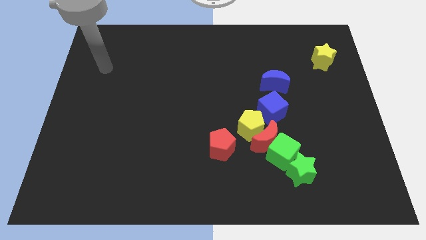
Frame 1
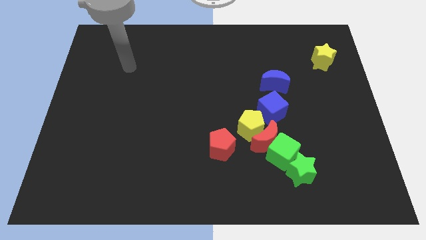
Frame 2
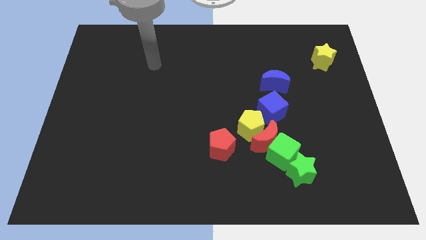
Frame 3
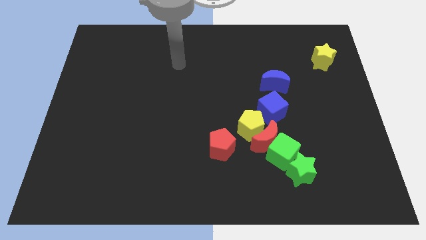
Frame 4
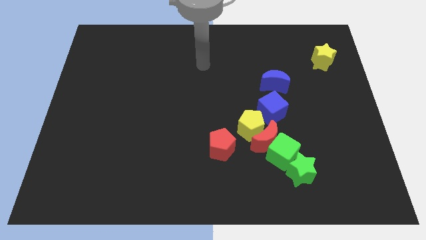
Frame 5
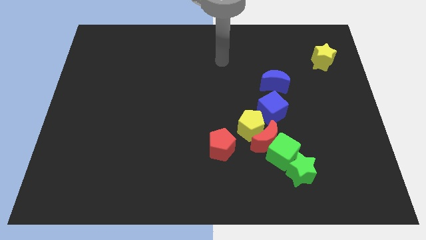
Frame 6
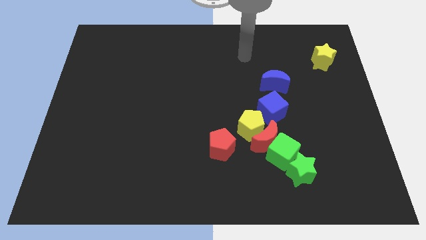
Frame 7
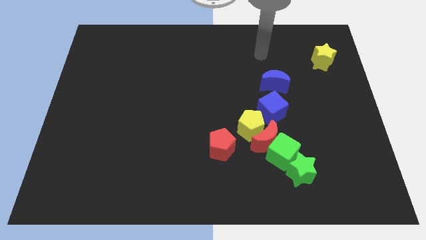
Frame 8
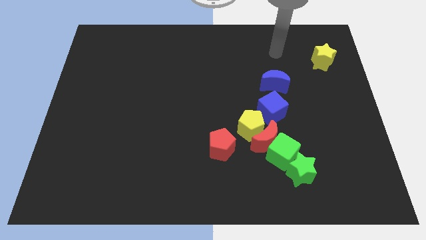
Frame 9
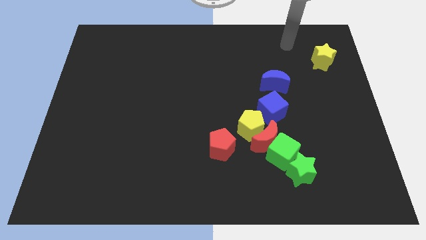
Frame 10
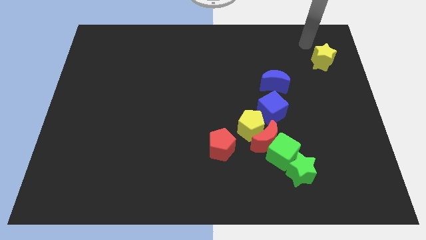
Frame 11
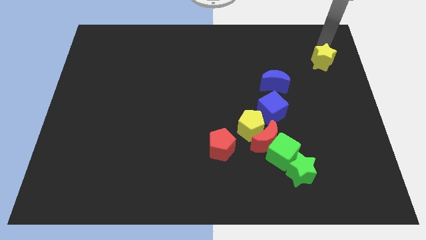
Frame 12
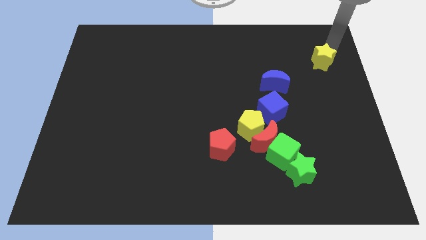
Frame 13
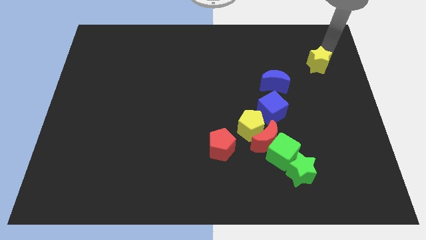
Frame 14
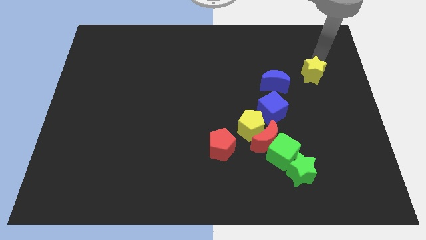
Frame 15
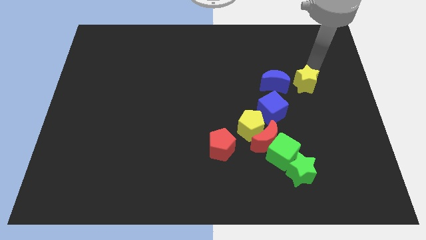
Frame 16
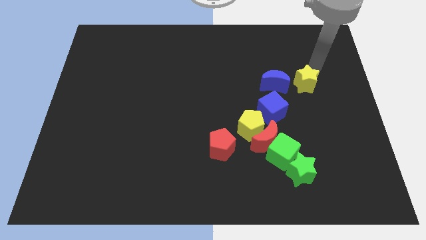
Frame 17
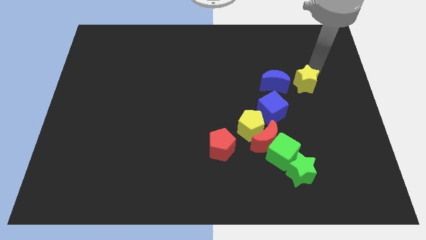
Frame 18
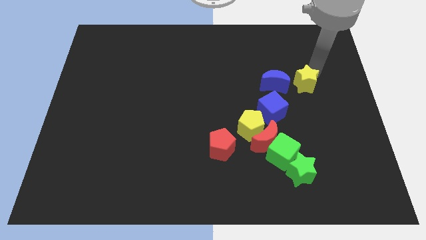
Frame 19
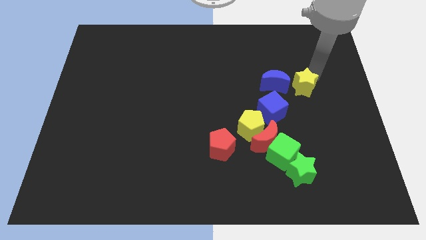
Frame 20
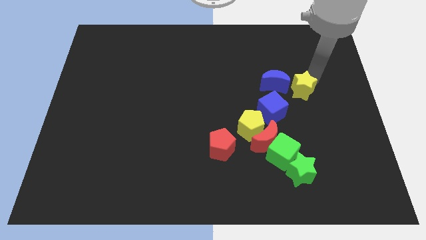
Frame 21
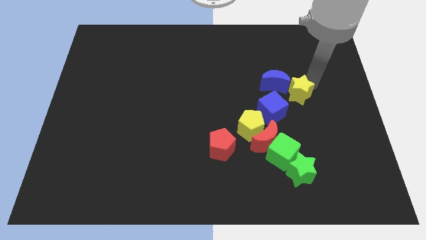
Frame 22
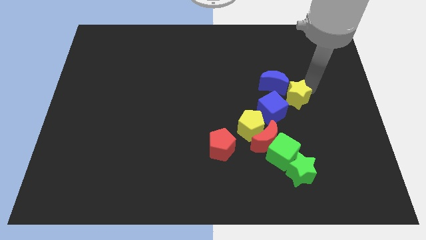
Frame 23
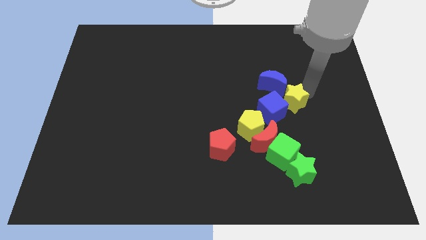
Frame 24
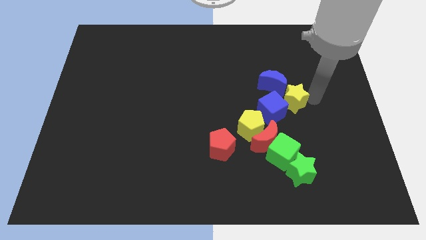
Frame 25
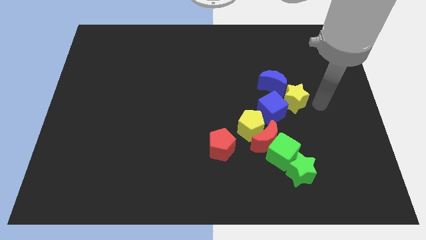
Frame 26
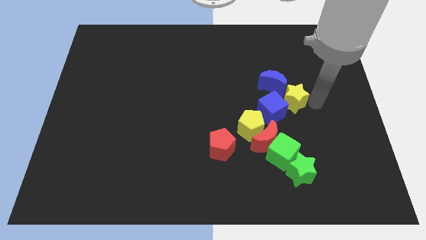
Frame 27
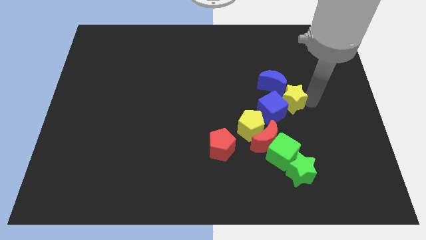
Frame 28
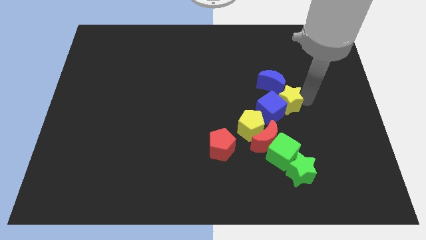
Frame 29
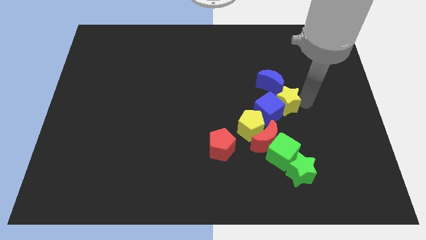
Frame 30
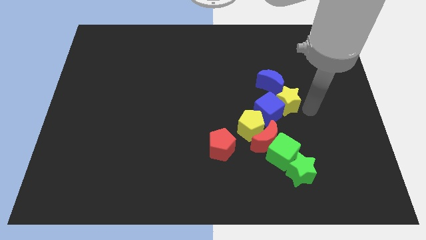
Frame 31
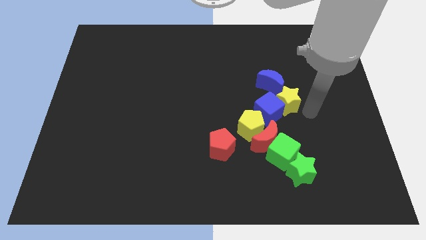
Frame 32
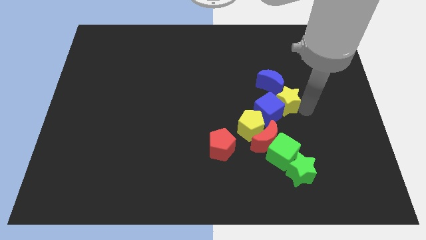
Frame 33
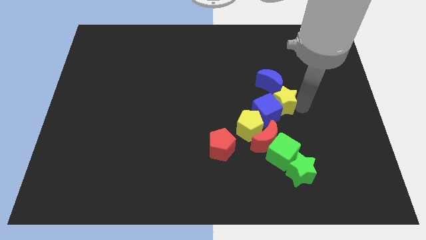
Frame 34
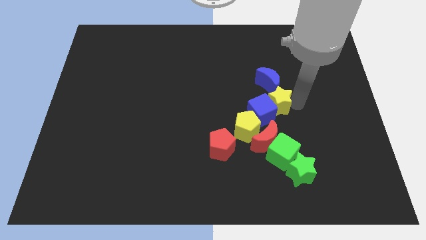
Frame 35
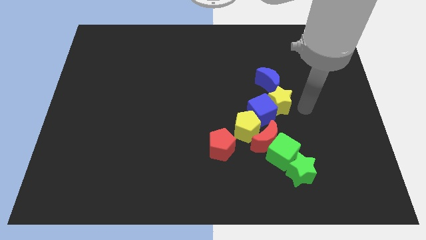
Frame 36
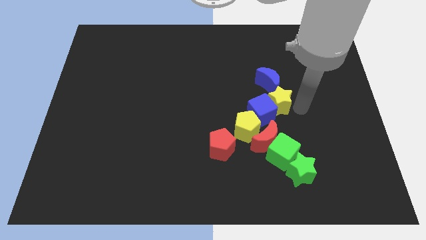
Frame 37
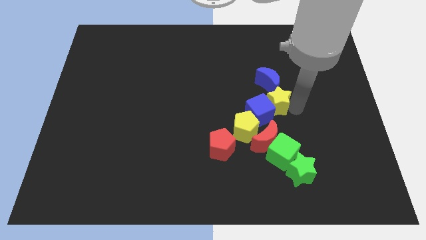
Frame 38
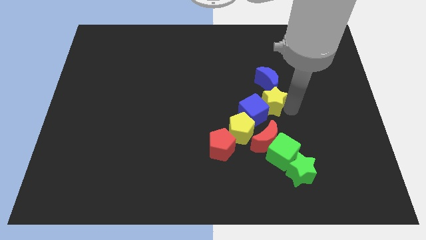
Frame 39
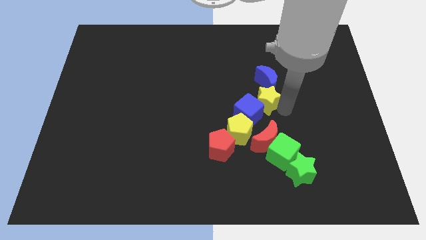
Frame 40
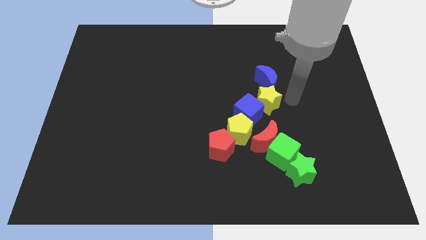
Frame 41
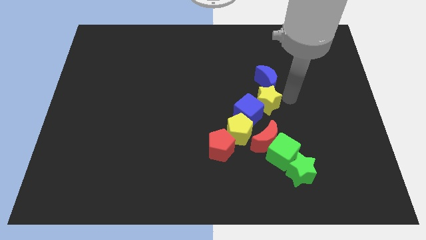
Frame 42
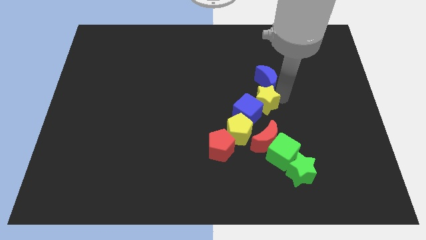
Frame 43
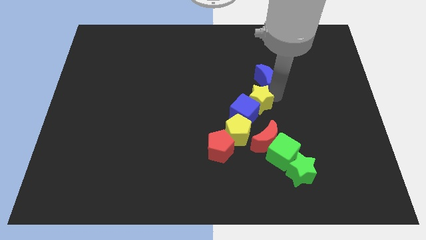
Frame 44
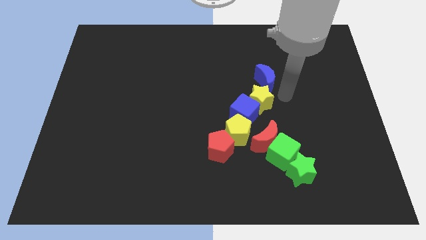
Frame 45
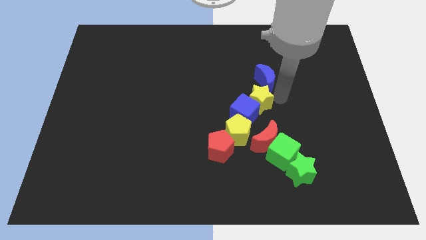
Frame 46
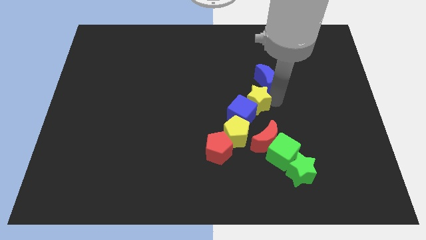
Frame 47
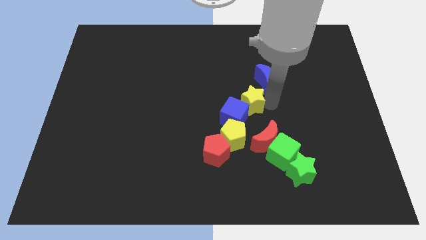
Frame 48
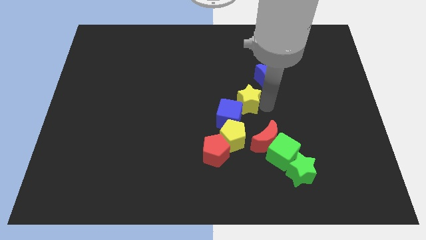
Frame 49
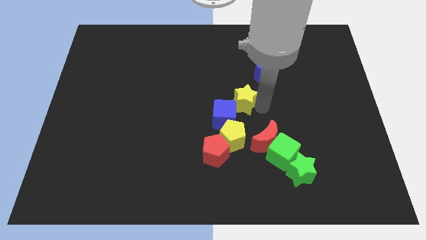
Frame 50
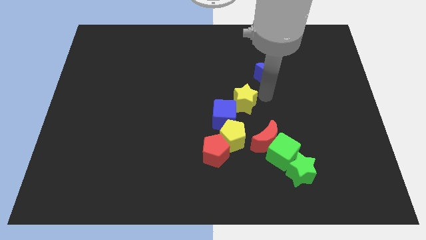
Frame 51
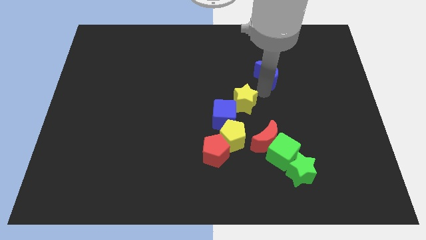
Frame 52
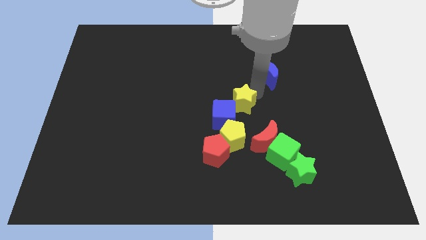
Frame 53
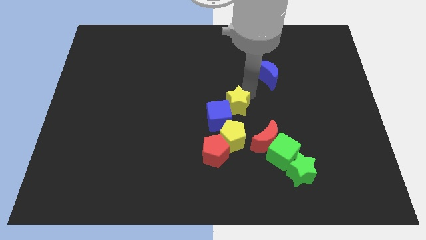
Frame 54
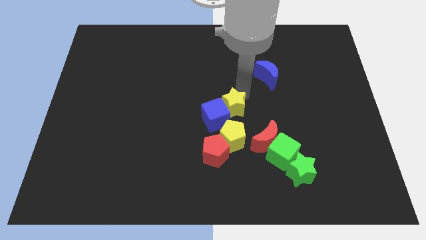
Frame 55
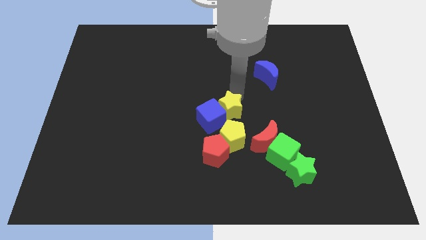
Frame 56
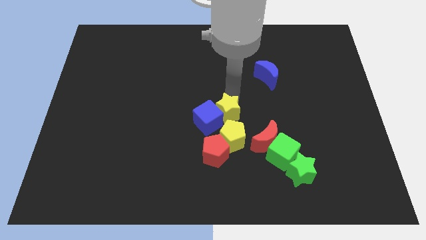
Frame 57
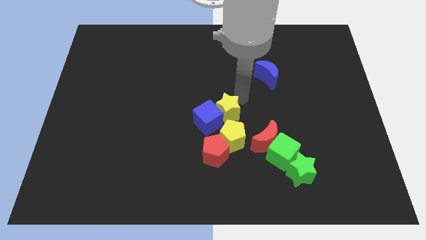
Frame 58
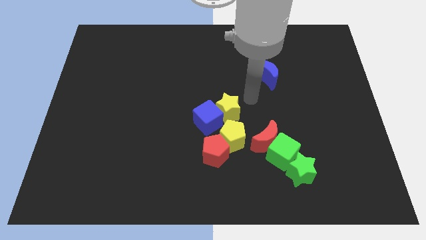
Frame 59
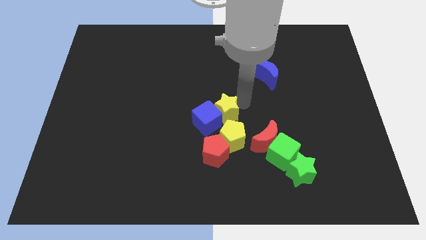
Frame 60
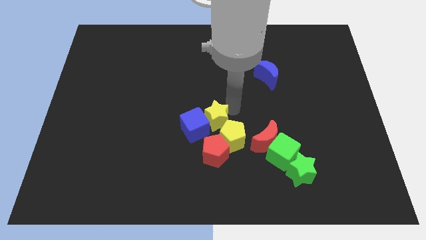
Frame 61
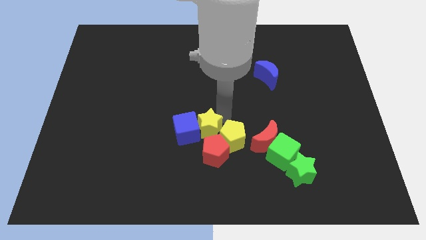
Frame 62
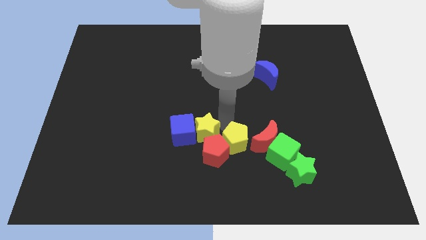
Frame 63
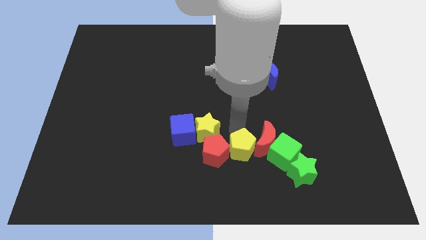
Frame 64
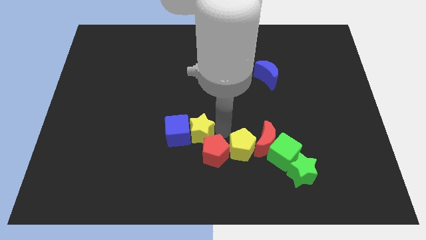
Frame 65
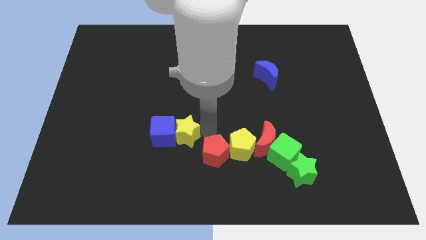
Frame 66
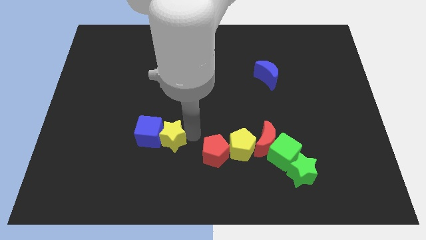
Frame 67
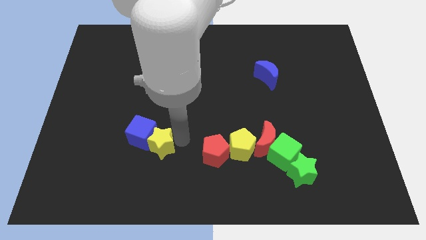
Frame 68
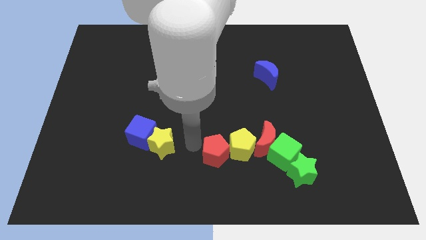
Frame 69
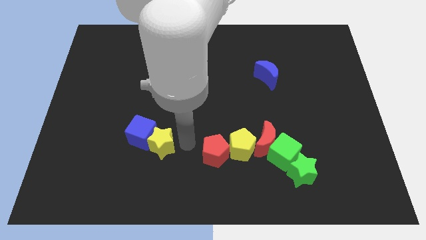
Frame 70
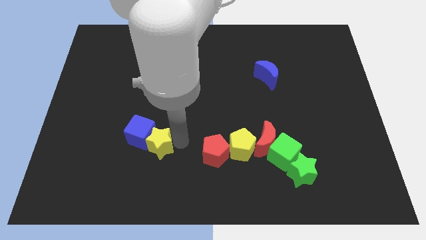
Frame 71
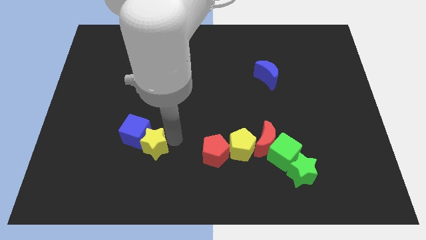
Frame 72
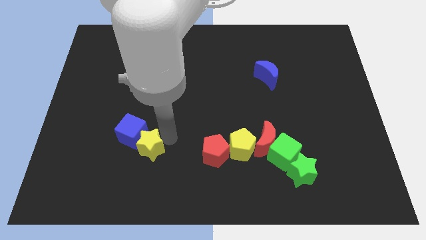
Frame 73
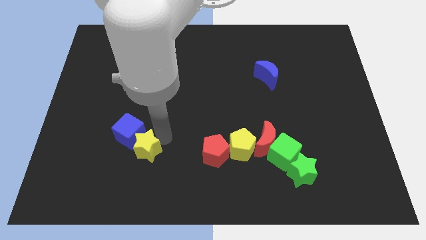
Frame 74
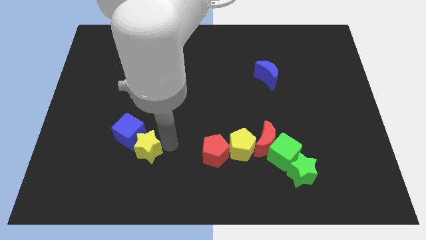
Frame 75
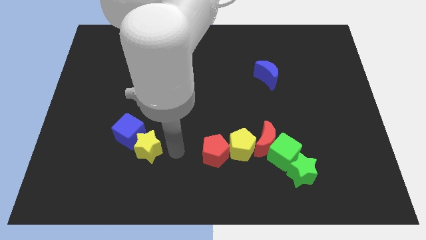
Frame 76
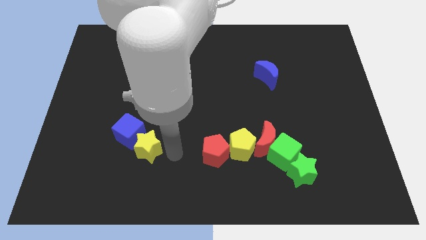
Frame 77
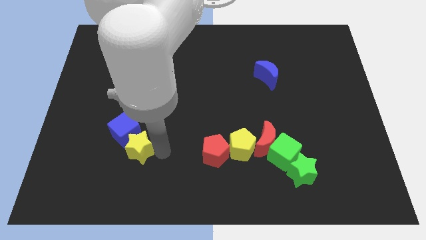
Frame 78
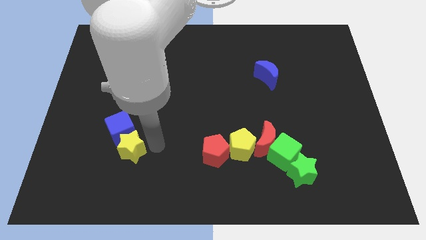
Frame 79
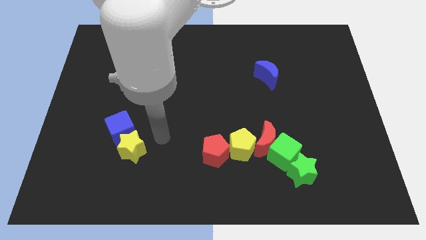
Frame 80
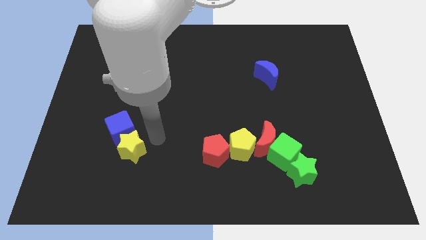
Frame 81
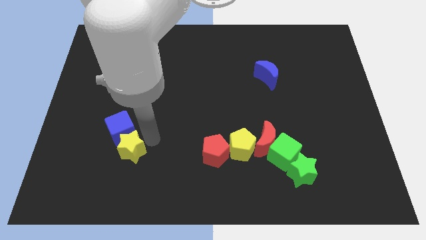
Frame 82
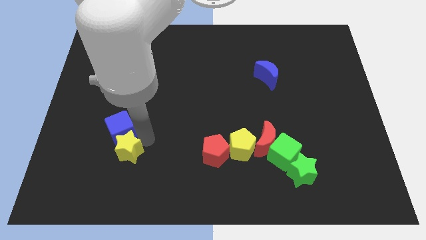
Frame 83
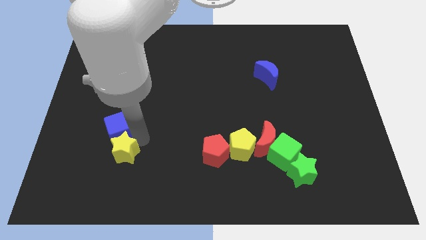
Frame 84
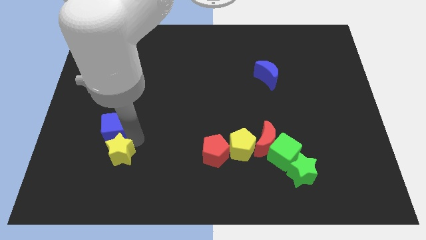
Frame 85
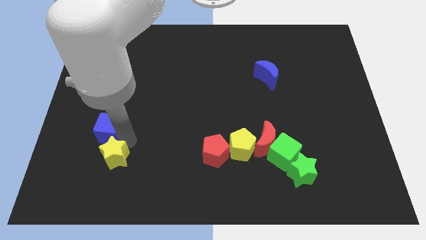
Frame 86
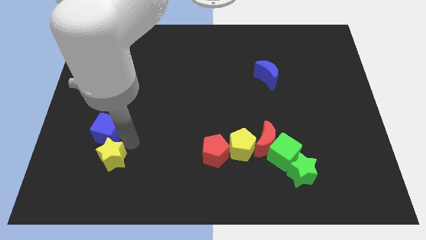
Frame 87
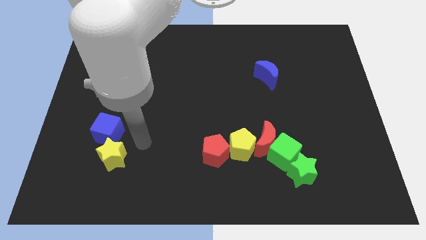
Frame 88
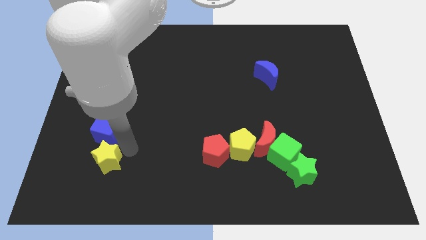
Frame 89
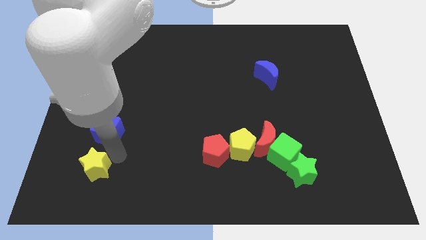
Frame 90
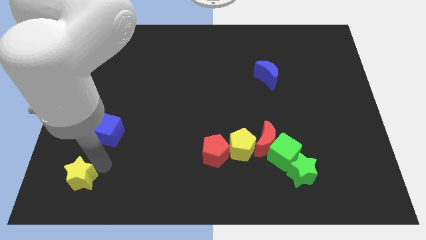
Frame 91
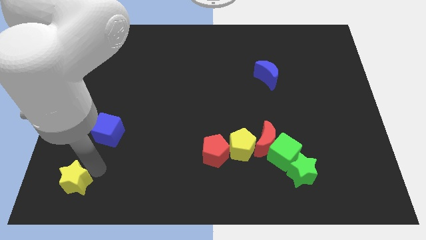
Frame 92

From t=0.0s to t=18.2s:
slide the yellow star to the bottom left
